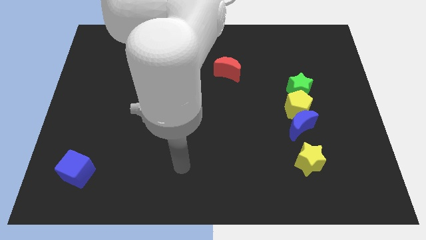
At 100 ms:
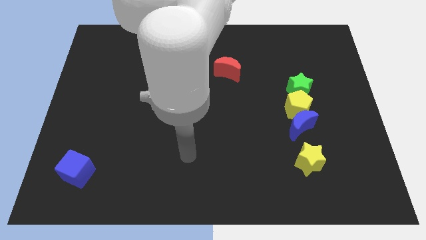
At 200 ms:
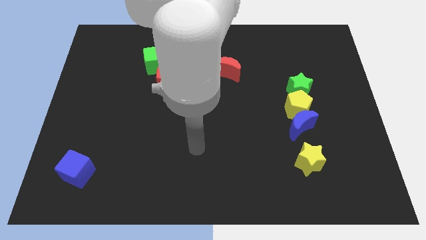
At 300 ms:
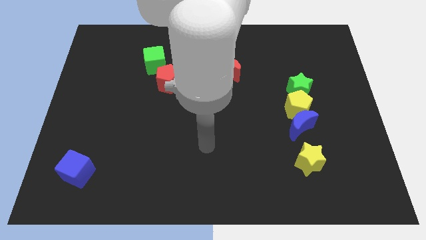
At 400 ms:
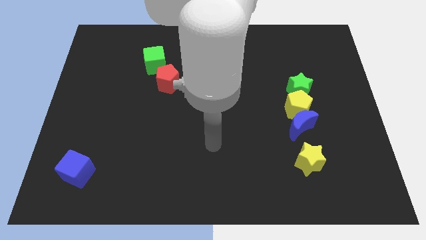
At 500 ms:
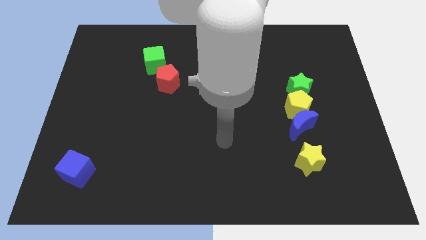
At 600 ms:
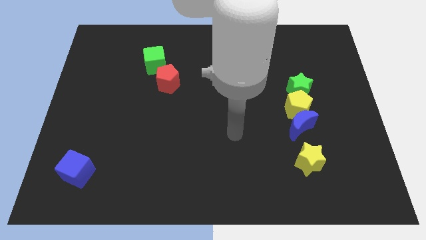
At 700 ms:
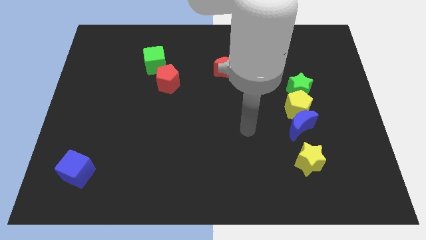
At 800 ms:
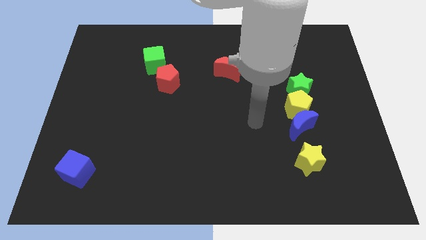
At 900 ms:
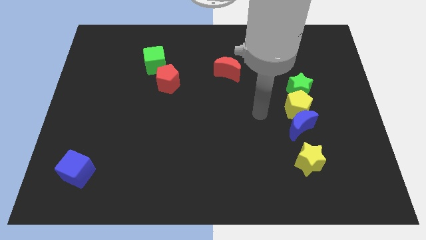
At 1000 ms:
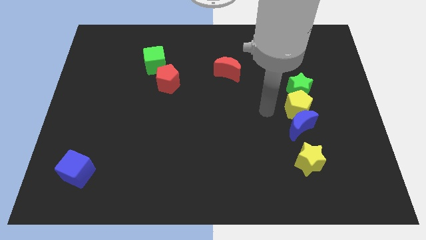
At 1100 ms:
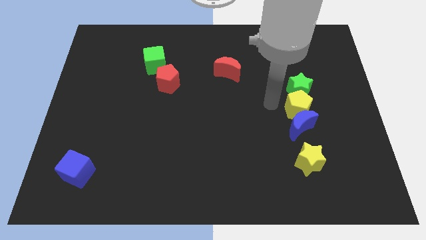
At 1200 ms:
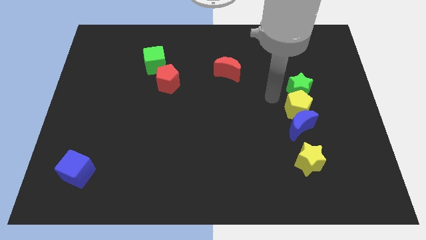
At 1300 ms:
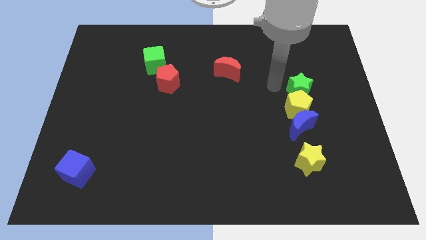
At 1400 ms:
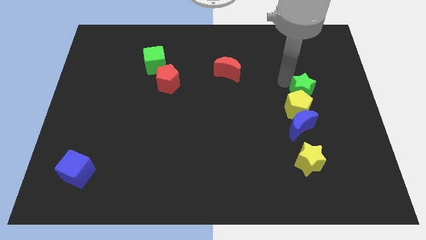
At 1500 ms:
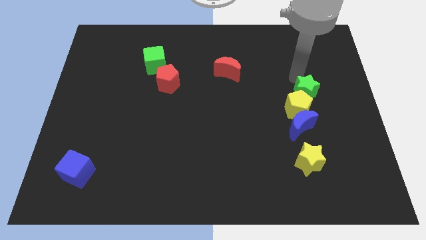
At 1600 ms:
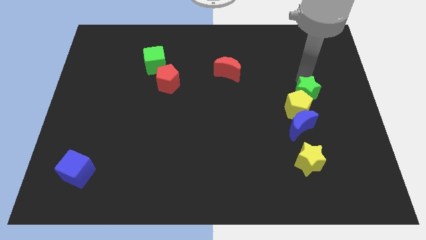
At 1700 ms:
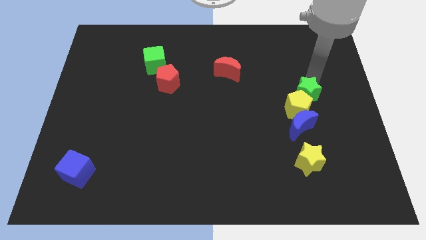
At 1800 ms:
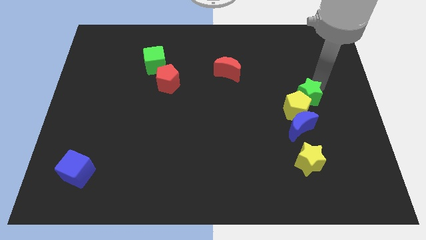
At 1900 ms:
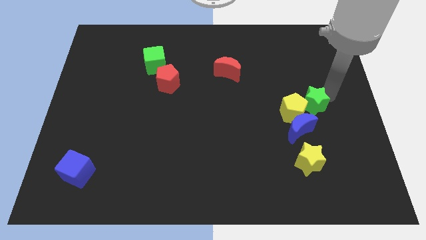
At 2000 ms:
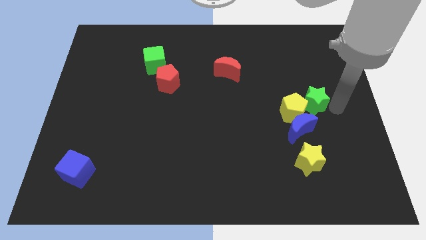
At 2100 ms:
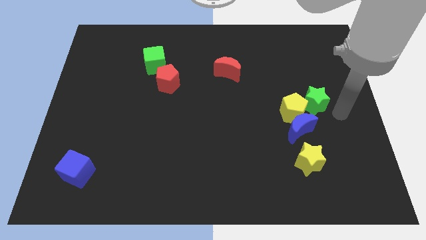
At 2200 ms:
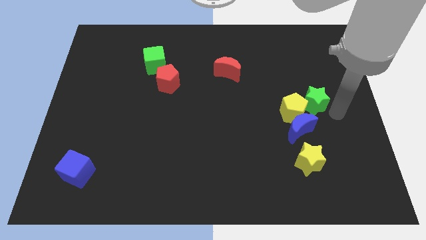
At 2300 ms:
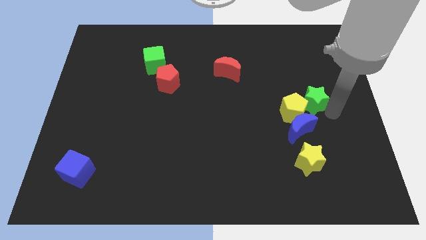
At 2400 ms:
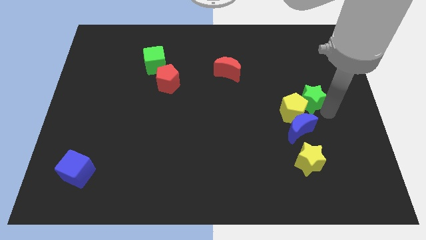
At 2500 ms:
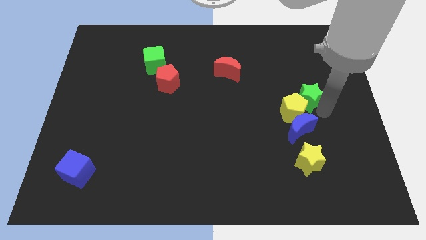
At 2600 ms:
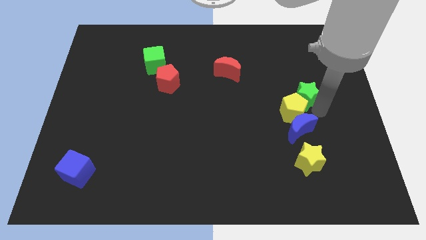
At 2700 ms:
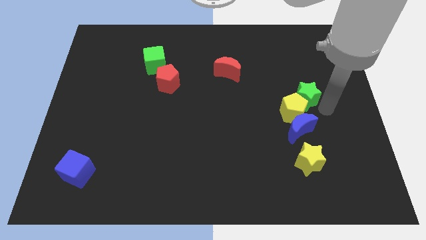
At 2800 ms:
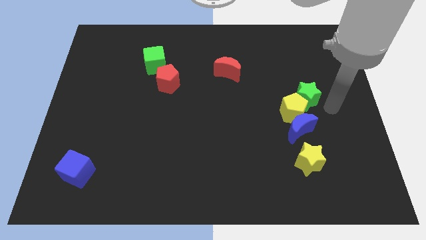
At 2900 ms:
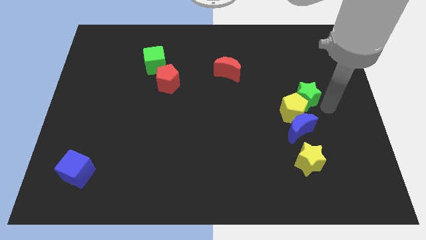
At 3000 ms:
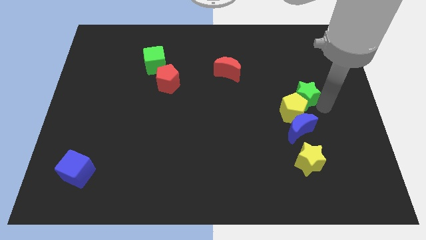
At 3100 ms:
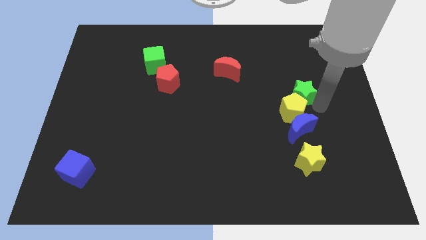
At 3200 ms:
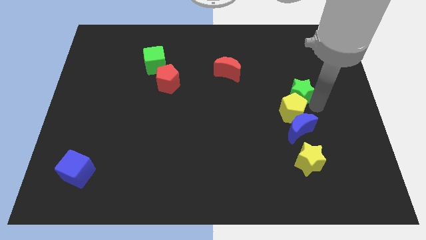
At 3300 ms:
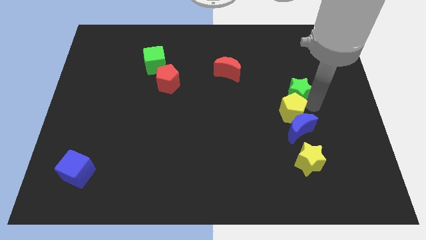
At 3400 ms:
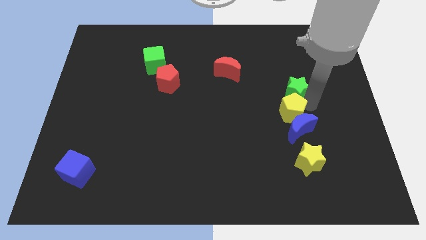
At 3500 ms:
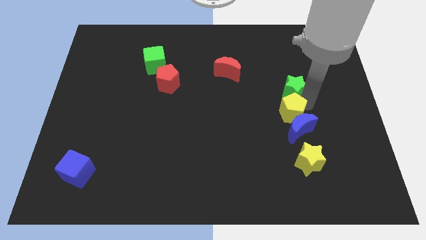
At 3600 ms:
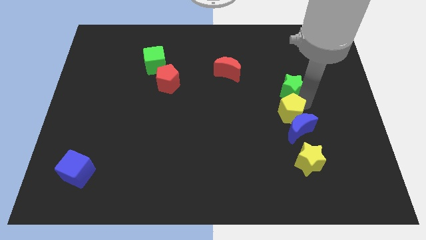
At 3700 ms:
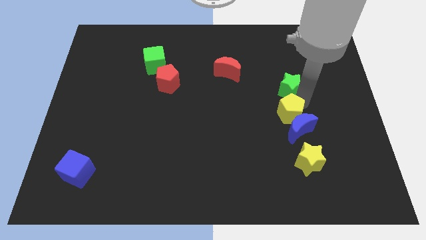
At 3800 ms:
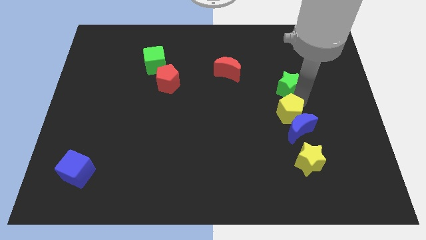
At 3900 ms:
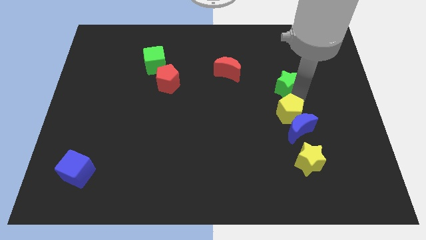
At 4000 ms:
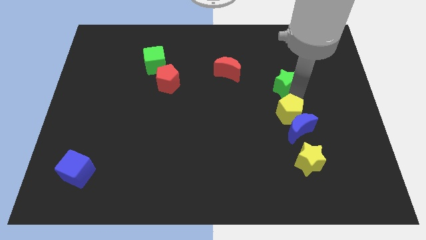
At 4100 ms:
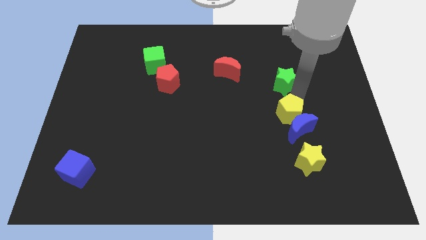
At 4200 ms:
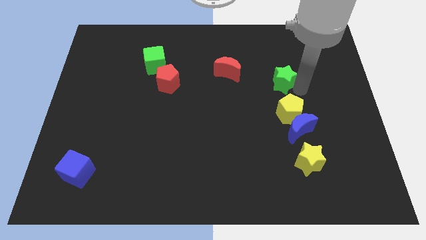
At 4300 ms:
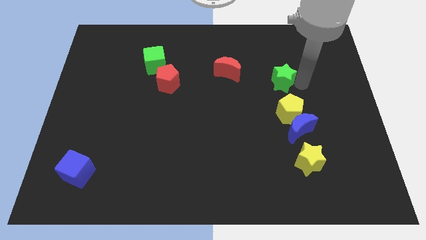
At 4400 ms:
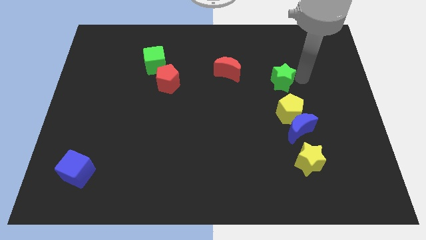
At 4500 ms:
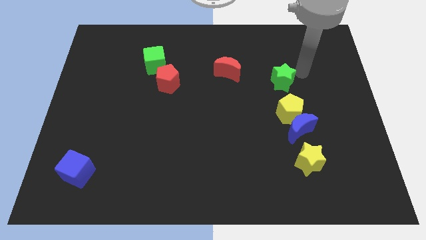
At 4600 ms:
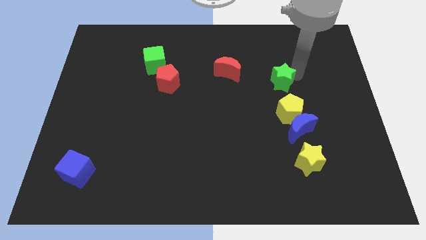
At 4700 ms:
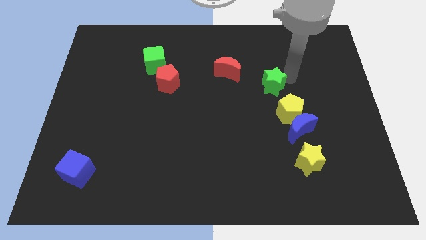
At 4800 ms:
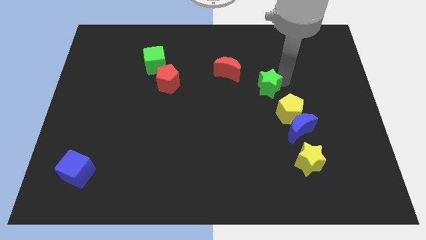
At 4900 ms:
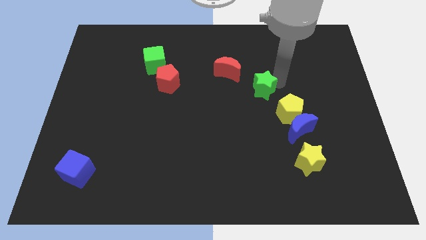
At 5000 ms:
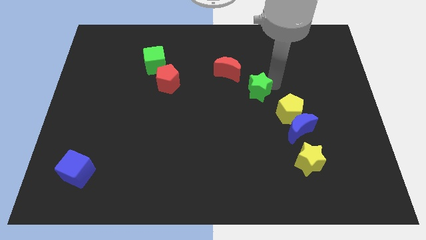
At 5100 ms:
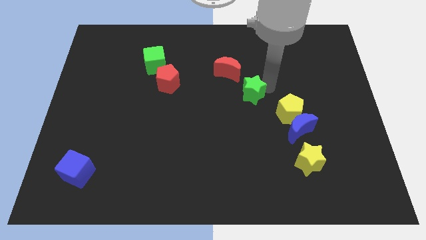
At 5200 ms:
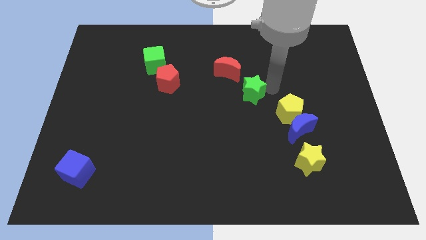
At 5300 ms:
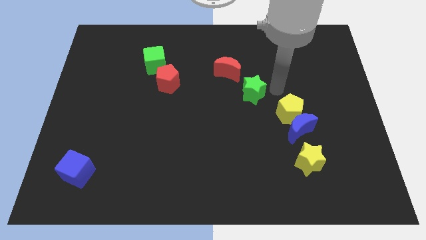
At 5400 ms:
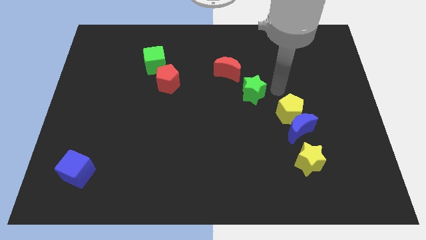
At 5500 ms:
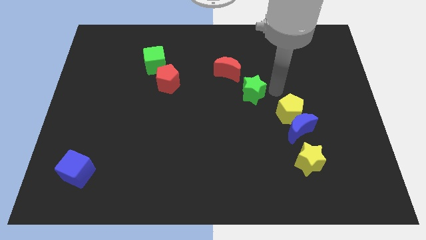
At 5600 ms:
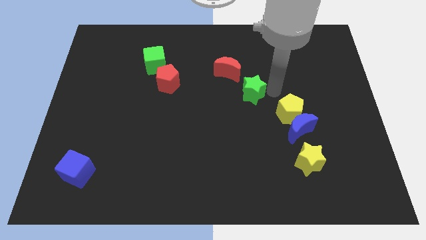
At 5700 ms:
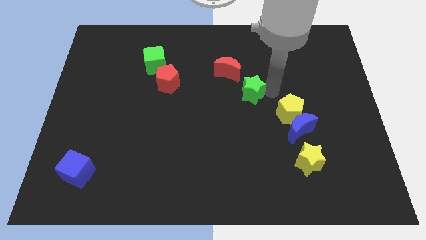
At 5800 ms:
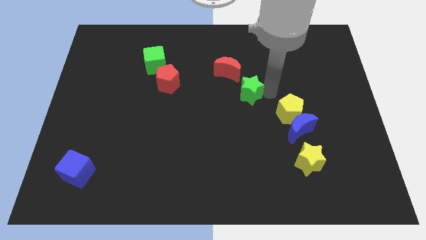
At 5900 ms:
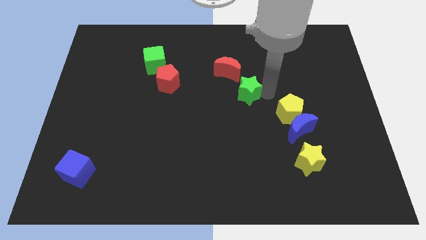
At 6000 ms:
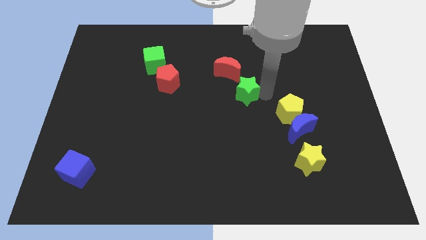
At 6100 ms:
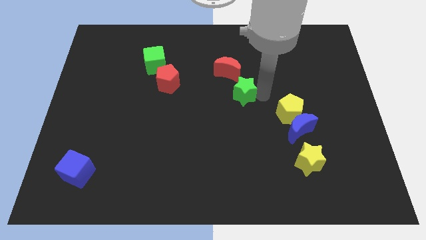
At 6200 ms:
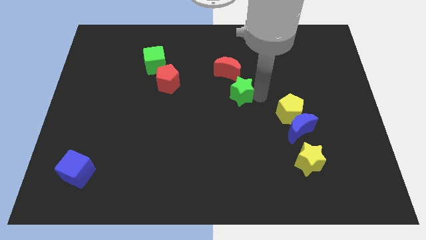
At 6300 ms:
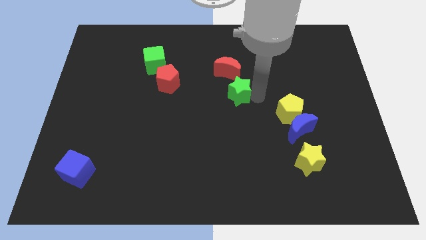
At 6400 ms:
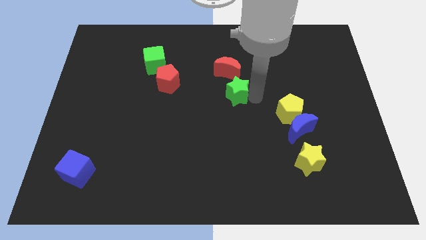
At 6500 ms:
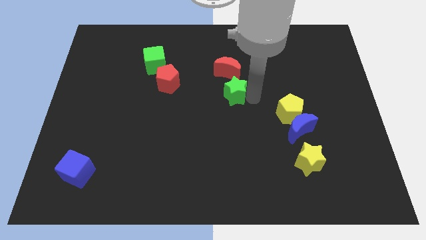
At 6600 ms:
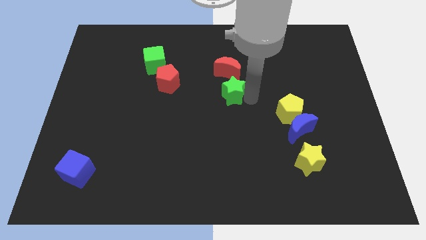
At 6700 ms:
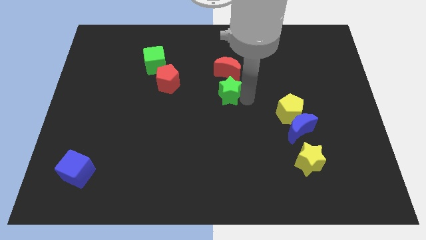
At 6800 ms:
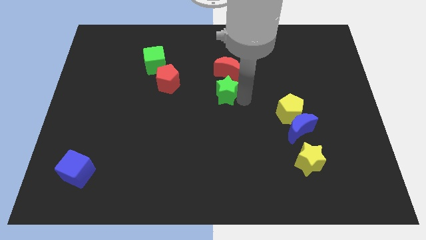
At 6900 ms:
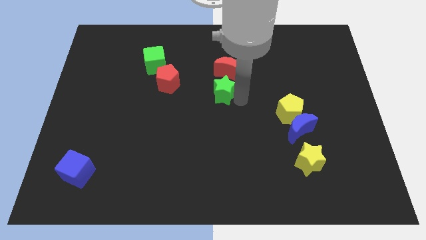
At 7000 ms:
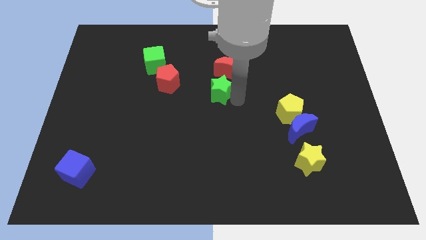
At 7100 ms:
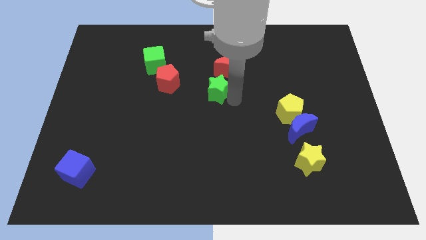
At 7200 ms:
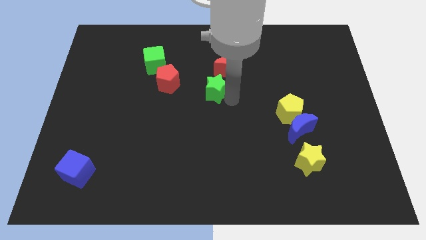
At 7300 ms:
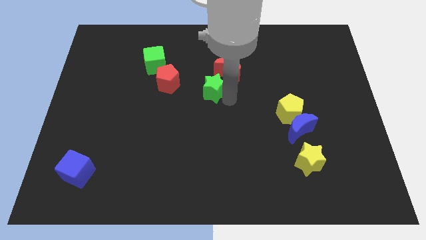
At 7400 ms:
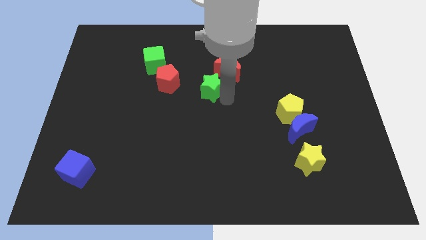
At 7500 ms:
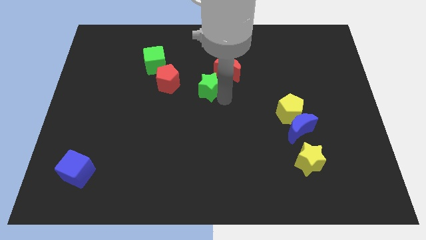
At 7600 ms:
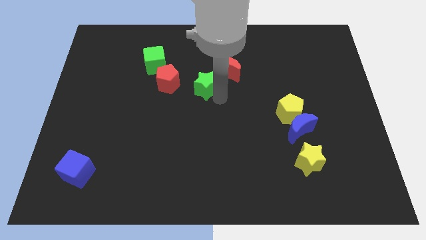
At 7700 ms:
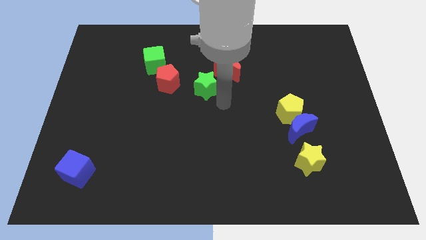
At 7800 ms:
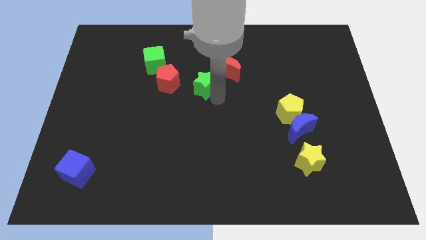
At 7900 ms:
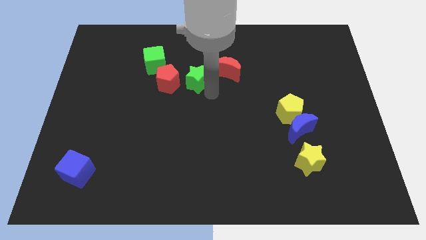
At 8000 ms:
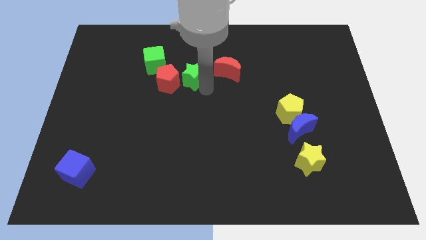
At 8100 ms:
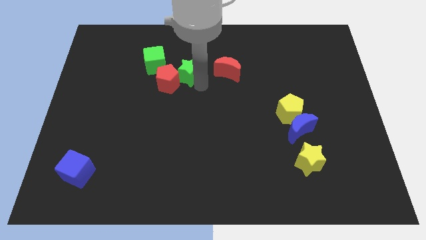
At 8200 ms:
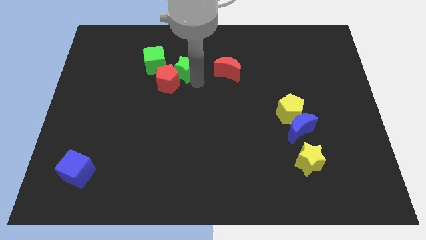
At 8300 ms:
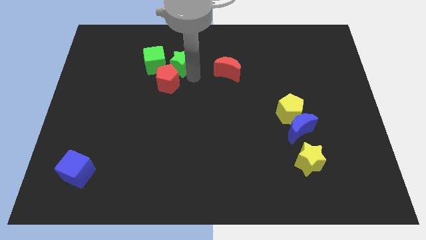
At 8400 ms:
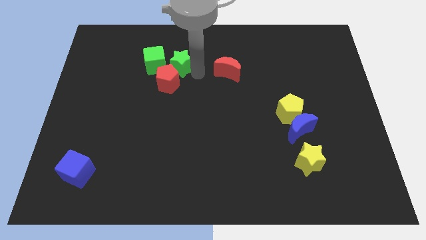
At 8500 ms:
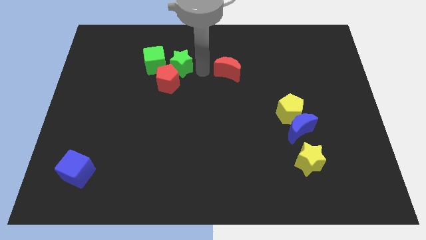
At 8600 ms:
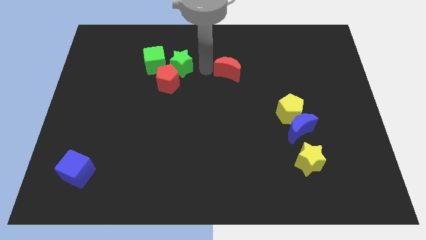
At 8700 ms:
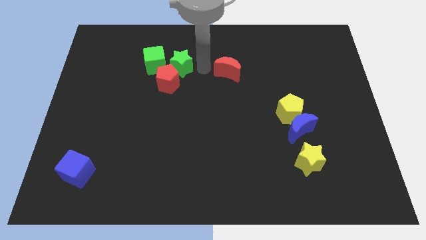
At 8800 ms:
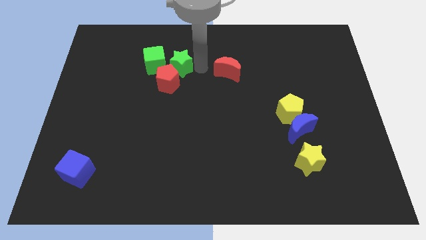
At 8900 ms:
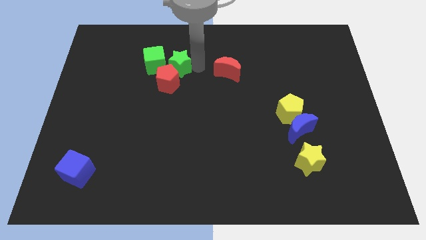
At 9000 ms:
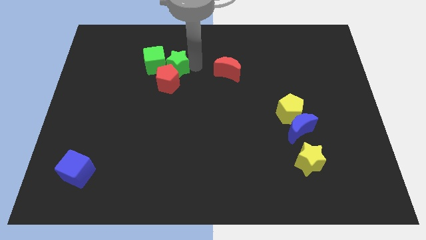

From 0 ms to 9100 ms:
move the green star close to the green cube
